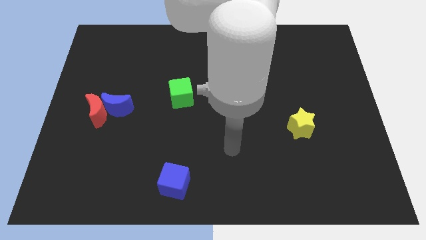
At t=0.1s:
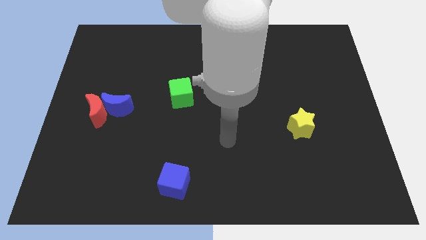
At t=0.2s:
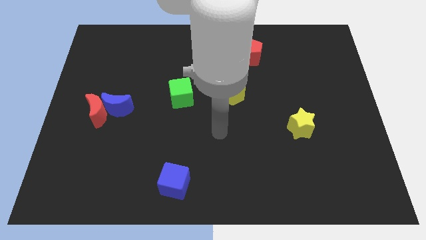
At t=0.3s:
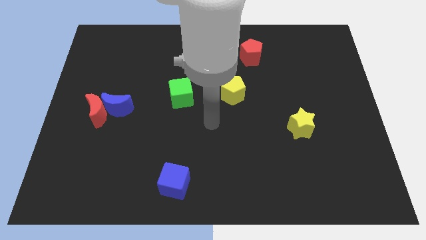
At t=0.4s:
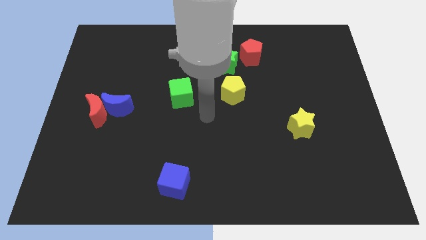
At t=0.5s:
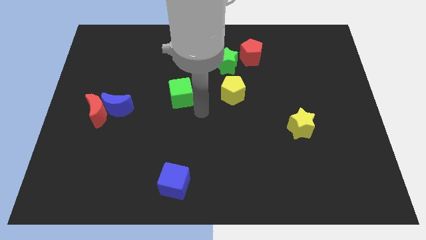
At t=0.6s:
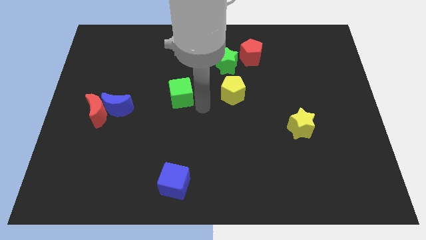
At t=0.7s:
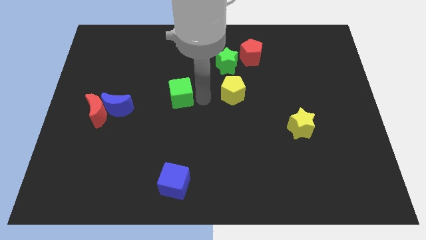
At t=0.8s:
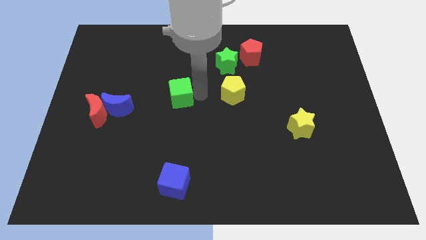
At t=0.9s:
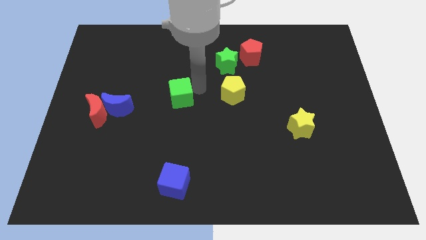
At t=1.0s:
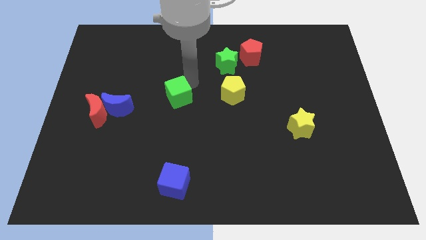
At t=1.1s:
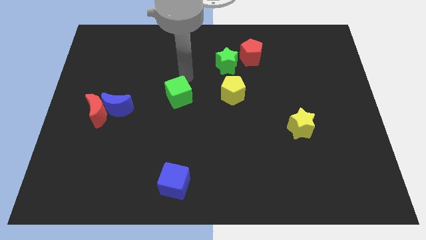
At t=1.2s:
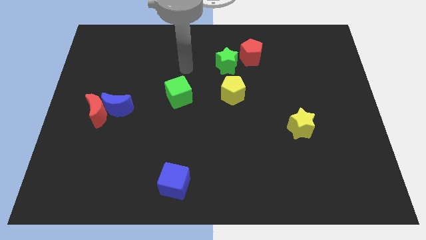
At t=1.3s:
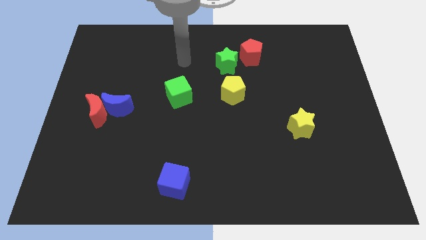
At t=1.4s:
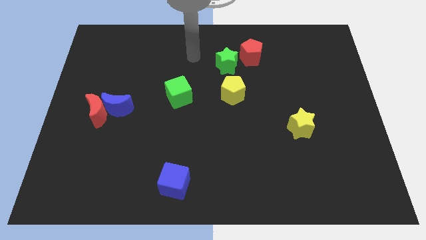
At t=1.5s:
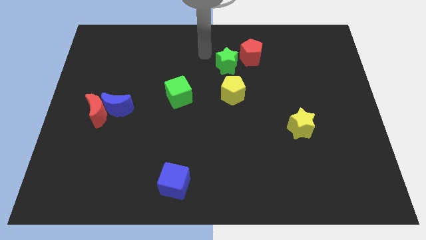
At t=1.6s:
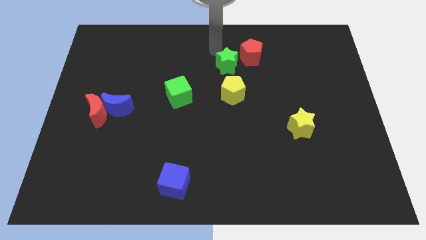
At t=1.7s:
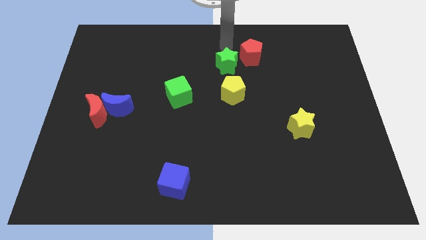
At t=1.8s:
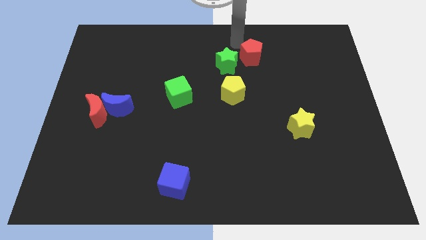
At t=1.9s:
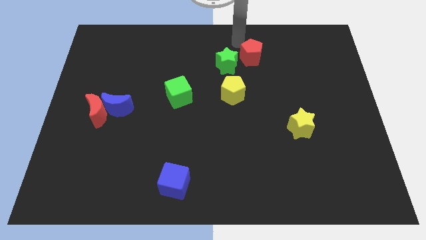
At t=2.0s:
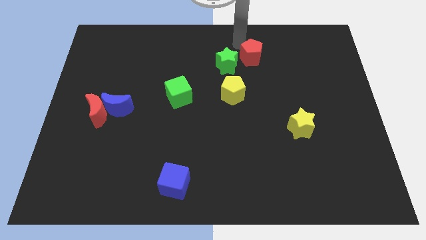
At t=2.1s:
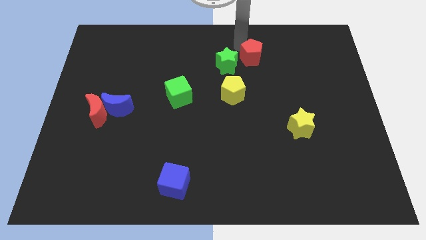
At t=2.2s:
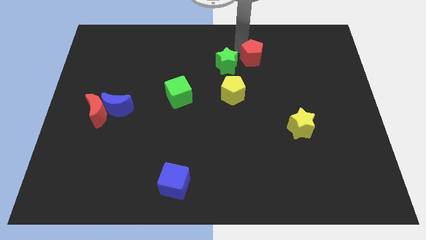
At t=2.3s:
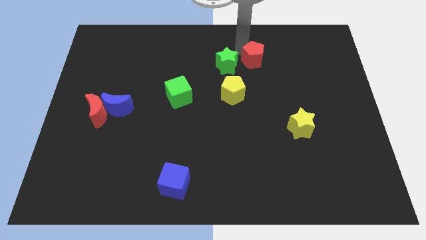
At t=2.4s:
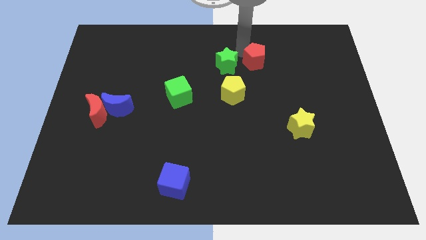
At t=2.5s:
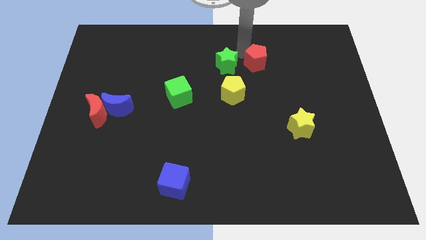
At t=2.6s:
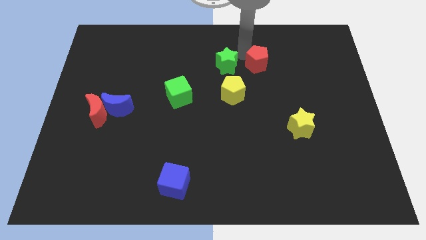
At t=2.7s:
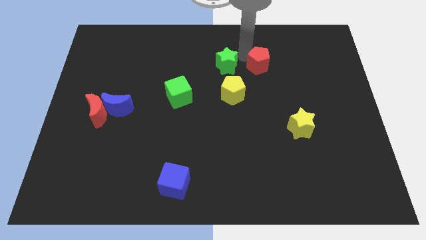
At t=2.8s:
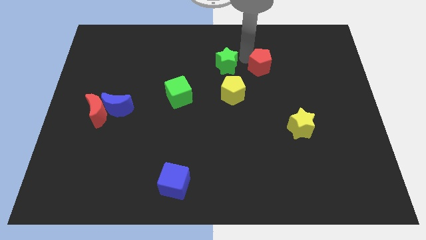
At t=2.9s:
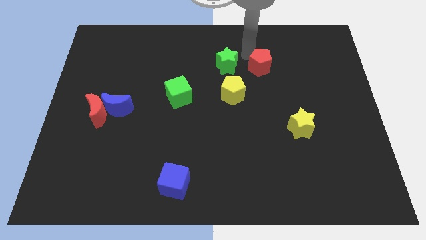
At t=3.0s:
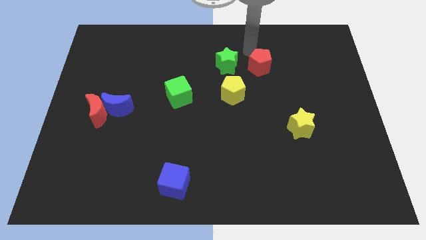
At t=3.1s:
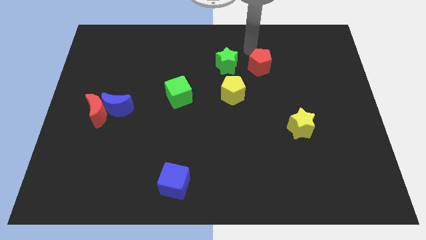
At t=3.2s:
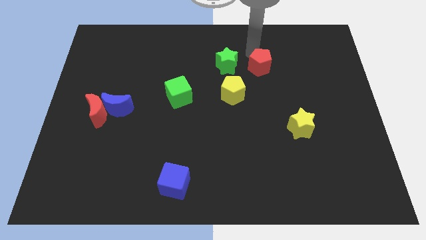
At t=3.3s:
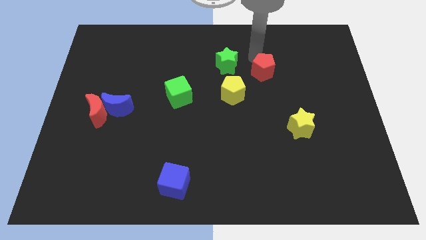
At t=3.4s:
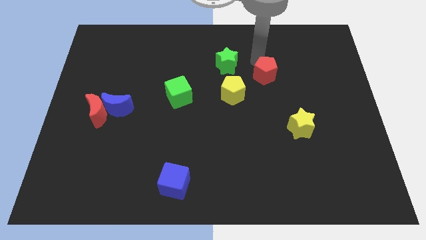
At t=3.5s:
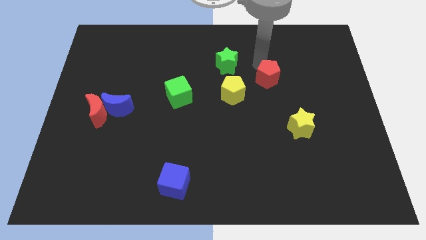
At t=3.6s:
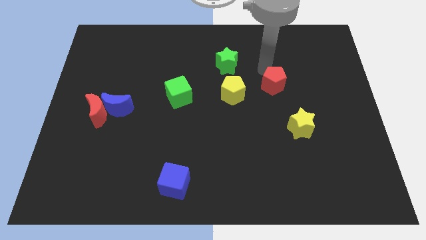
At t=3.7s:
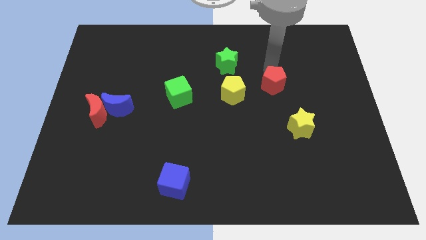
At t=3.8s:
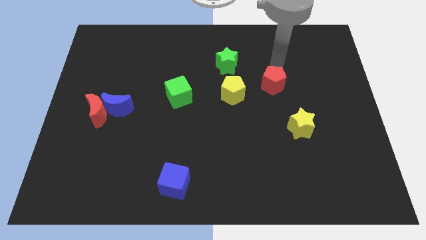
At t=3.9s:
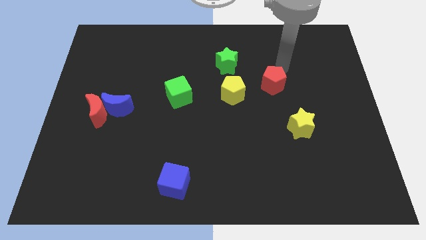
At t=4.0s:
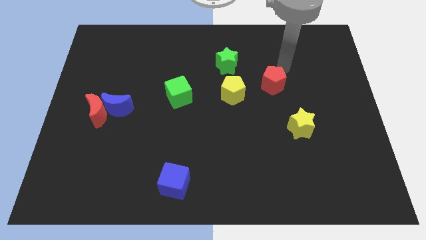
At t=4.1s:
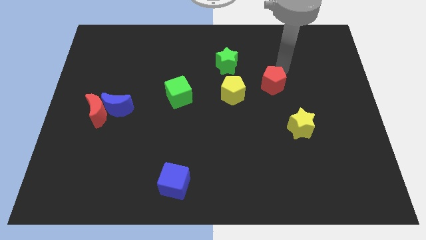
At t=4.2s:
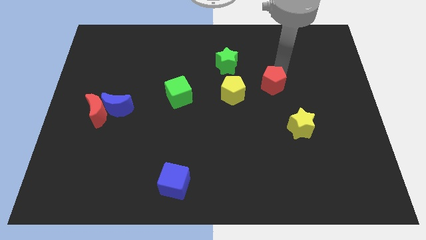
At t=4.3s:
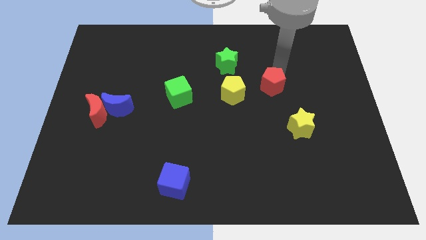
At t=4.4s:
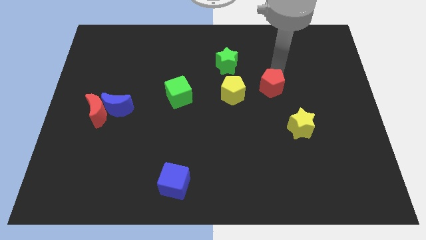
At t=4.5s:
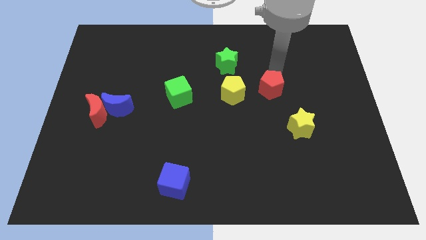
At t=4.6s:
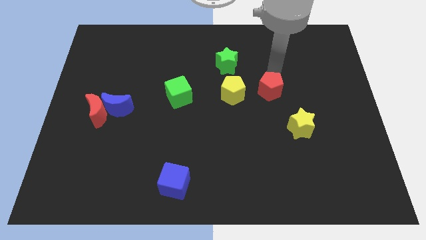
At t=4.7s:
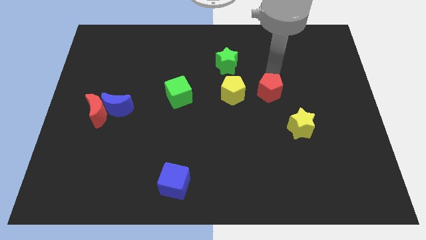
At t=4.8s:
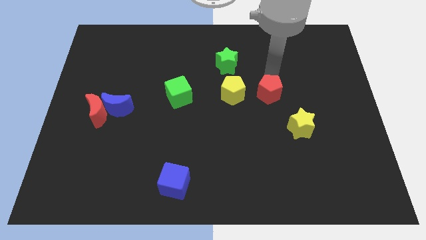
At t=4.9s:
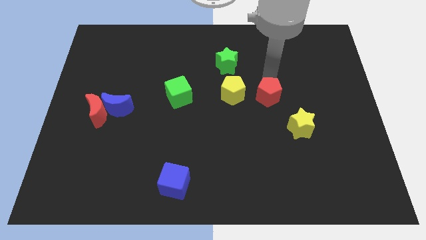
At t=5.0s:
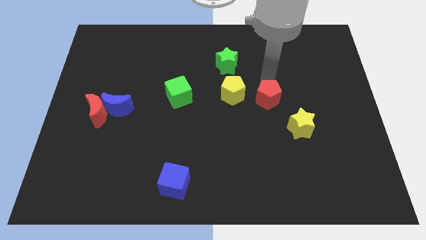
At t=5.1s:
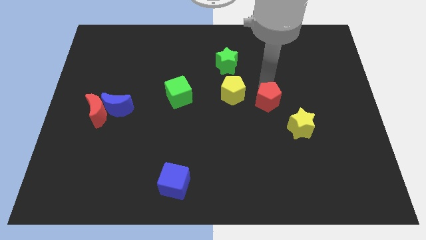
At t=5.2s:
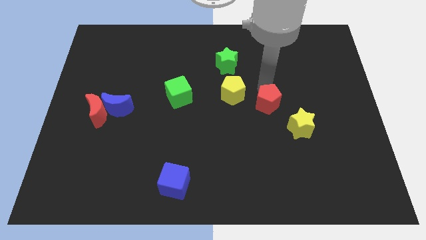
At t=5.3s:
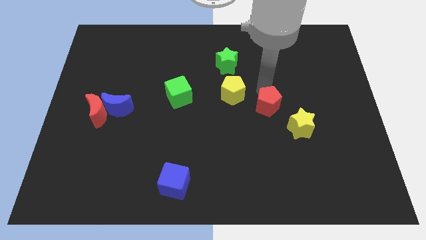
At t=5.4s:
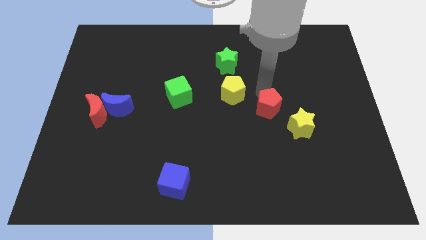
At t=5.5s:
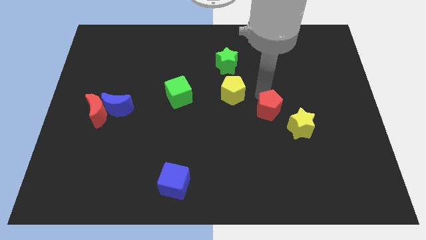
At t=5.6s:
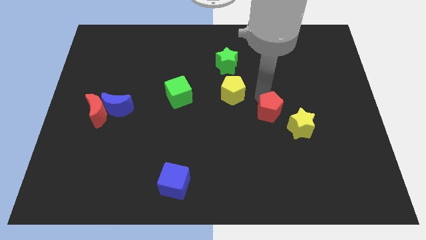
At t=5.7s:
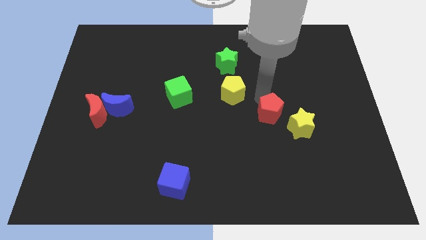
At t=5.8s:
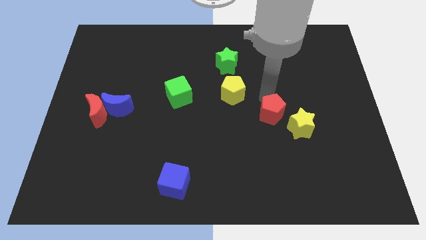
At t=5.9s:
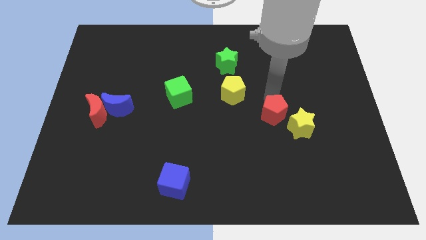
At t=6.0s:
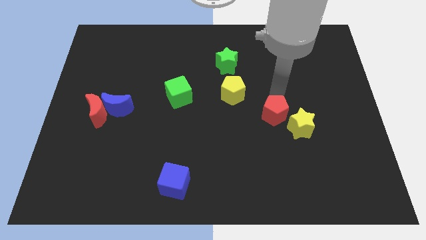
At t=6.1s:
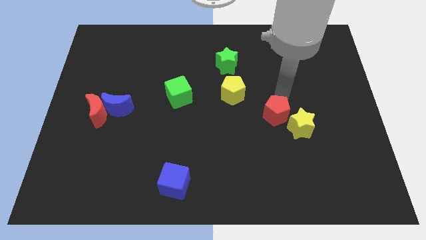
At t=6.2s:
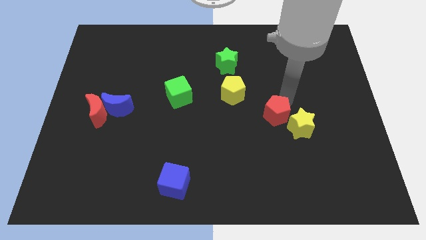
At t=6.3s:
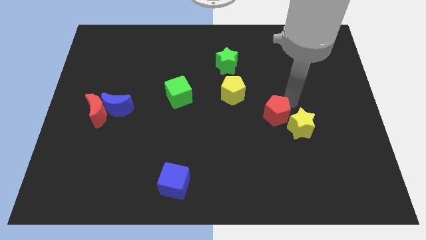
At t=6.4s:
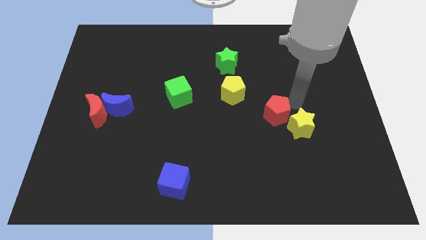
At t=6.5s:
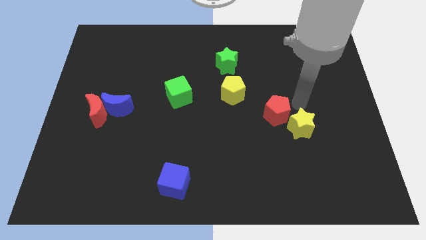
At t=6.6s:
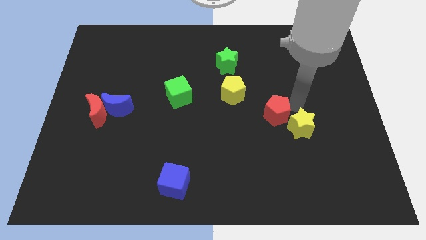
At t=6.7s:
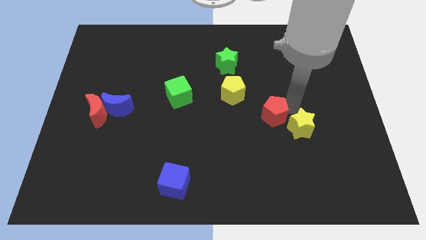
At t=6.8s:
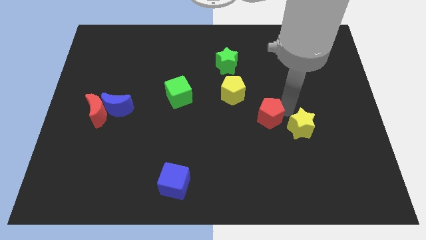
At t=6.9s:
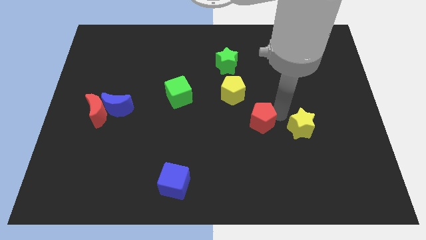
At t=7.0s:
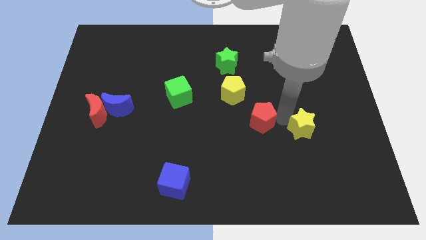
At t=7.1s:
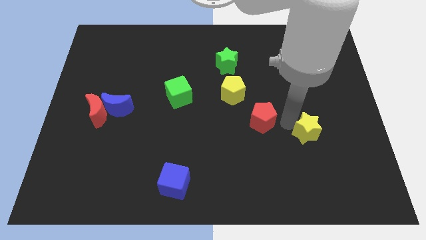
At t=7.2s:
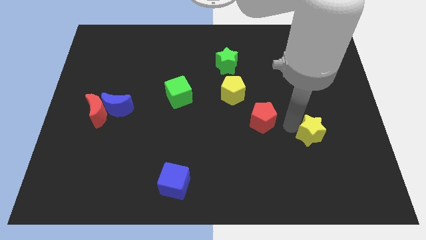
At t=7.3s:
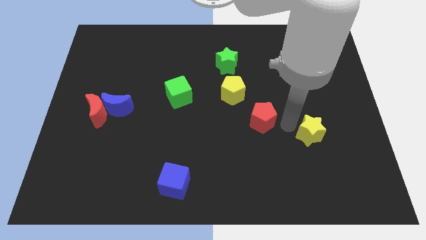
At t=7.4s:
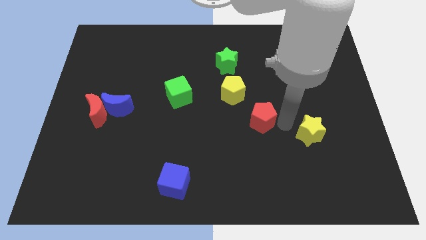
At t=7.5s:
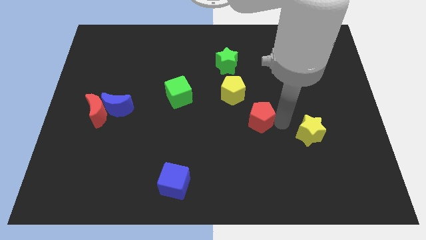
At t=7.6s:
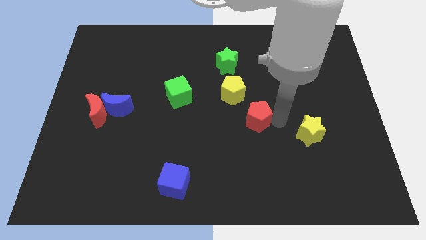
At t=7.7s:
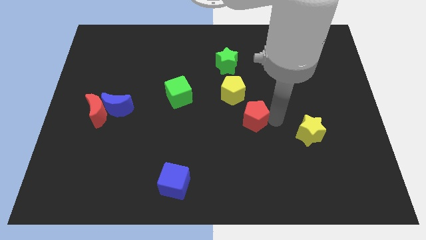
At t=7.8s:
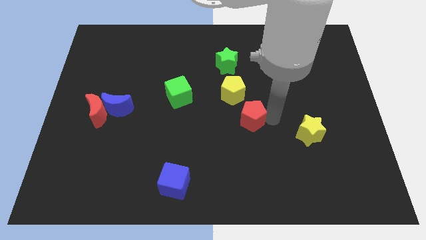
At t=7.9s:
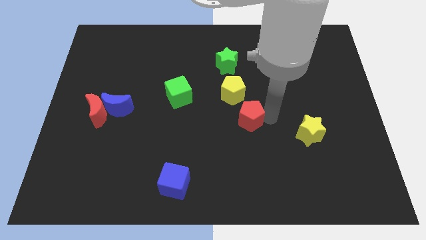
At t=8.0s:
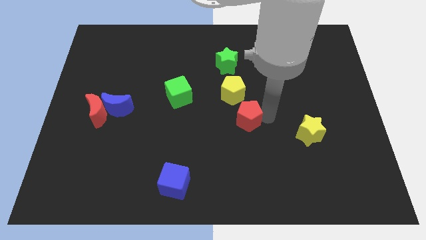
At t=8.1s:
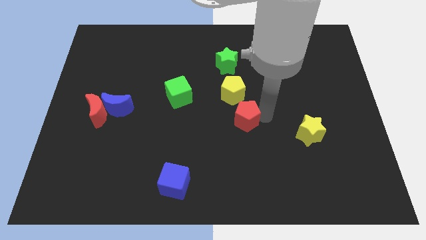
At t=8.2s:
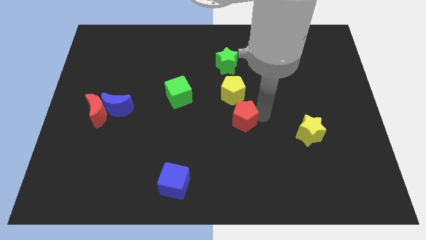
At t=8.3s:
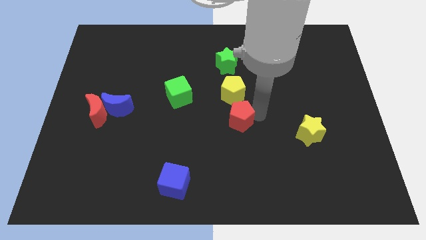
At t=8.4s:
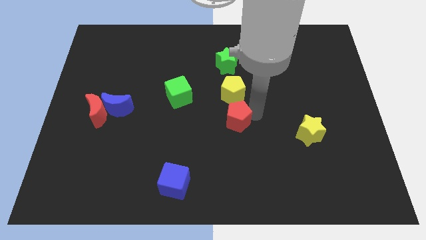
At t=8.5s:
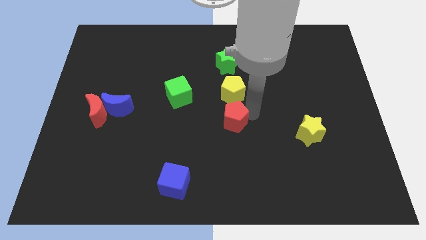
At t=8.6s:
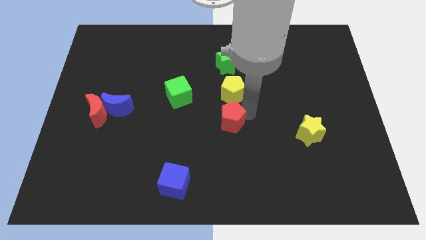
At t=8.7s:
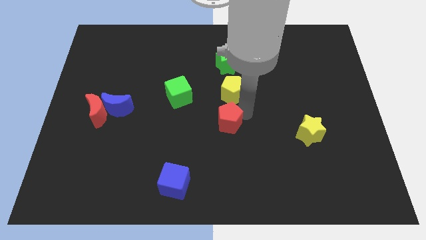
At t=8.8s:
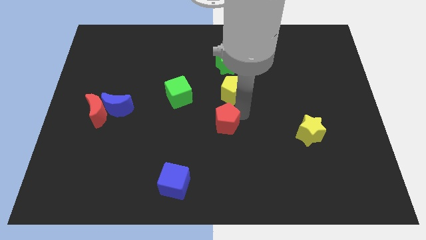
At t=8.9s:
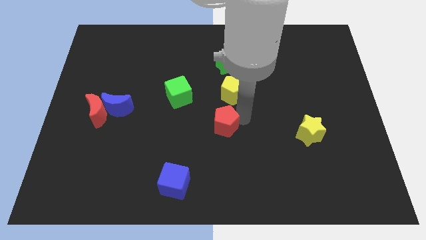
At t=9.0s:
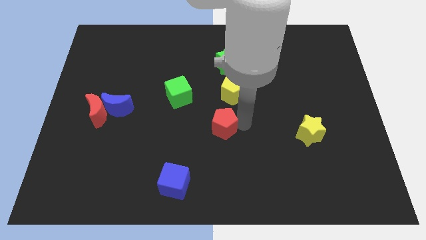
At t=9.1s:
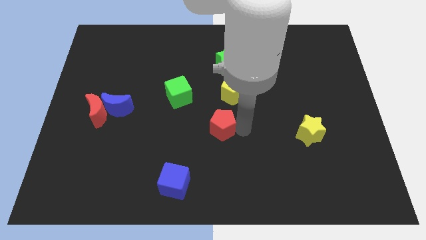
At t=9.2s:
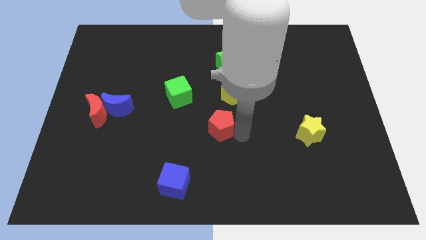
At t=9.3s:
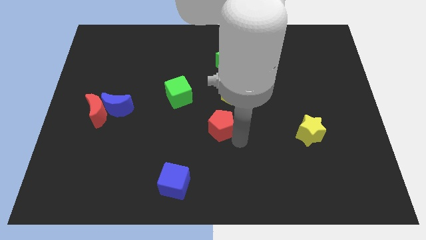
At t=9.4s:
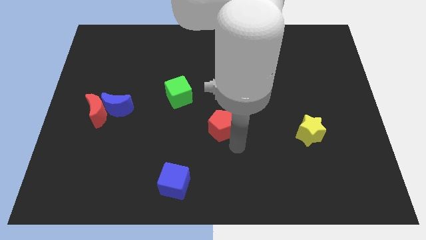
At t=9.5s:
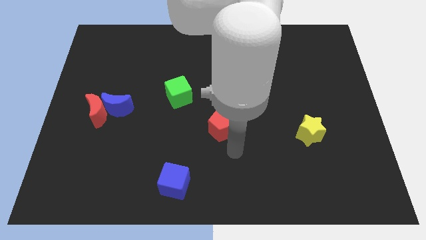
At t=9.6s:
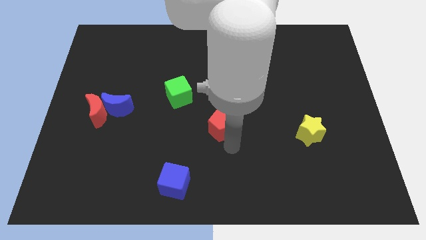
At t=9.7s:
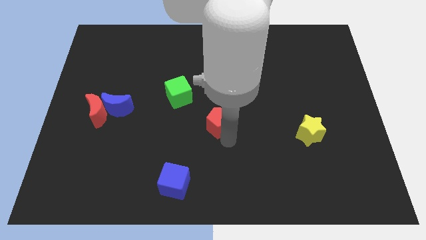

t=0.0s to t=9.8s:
slide the red pentagon to the bottom left of the yellow pentagon
